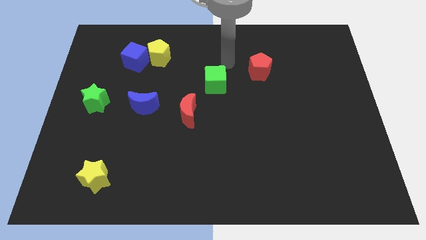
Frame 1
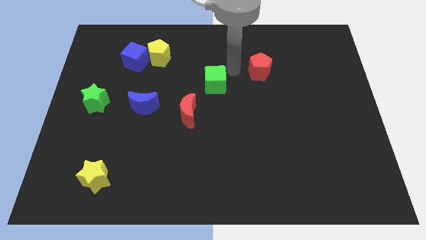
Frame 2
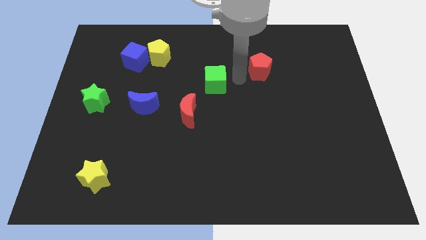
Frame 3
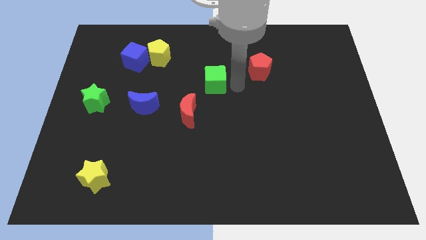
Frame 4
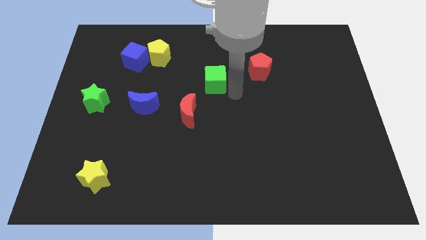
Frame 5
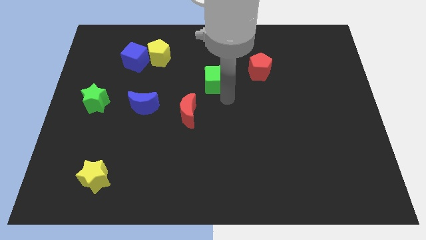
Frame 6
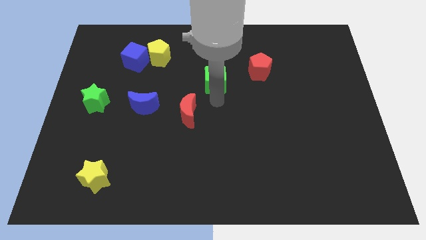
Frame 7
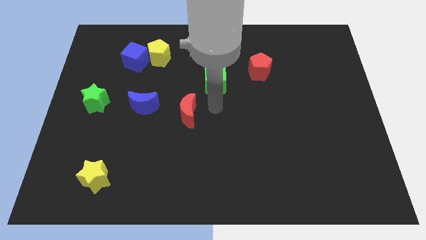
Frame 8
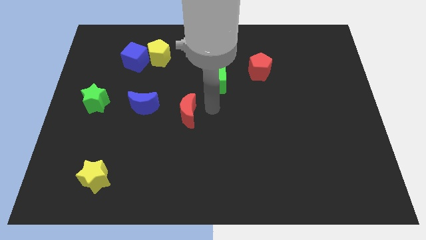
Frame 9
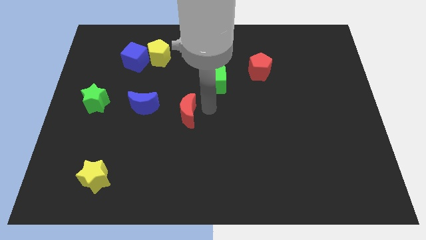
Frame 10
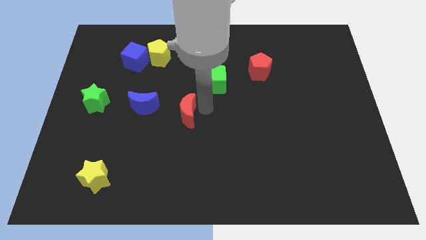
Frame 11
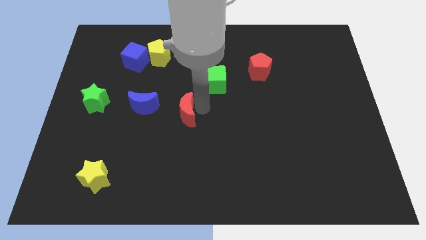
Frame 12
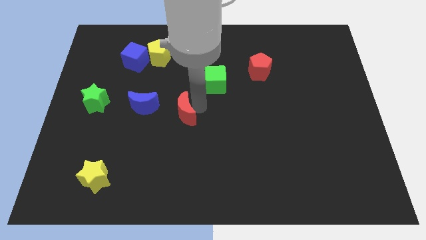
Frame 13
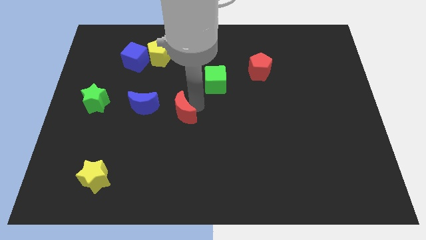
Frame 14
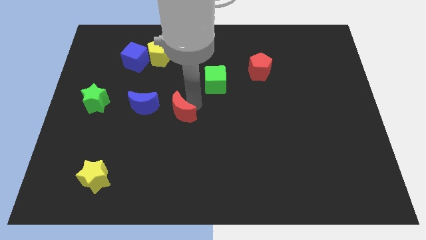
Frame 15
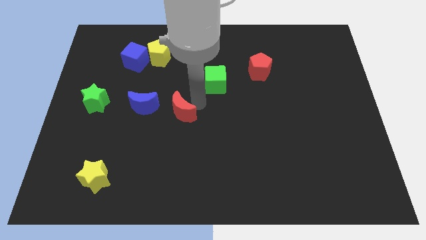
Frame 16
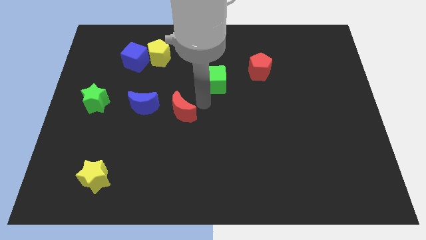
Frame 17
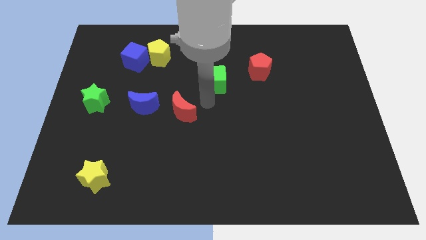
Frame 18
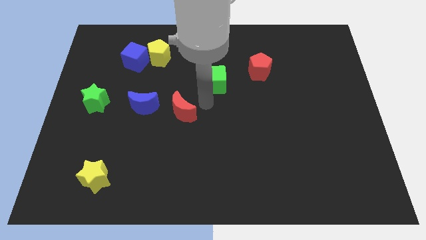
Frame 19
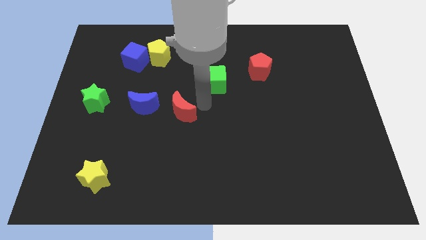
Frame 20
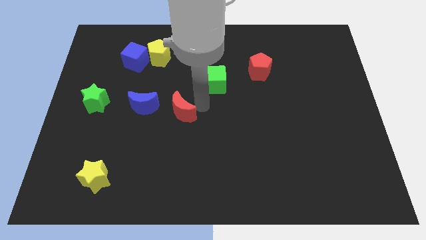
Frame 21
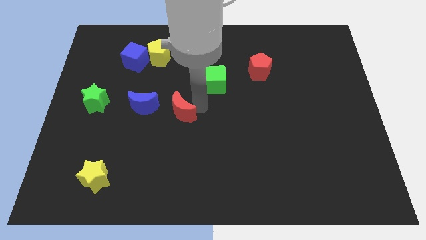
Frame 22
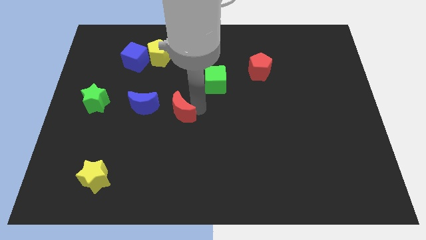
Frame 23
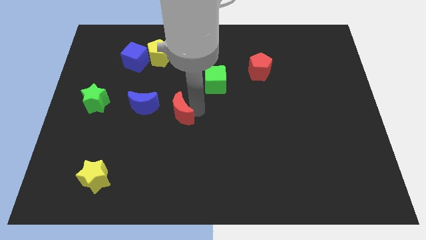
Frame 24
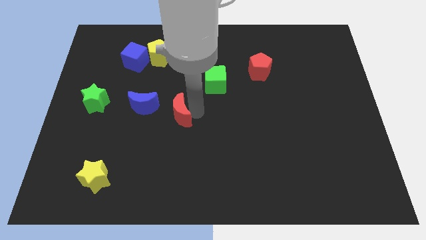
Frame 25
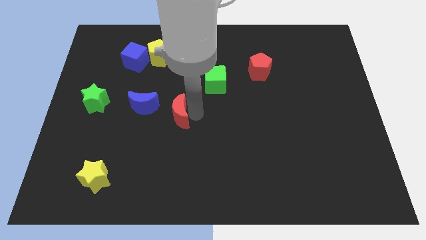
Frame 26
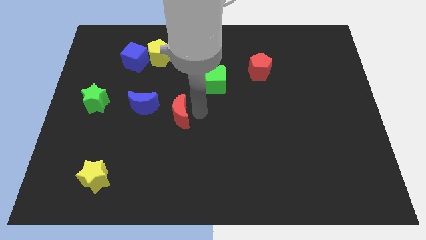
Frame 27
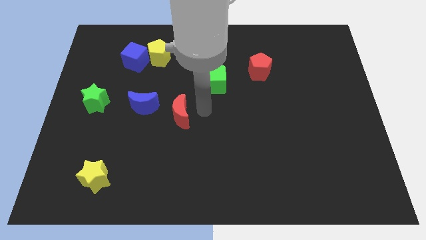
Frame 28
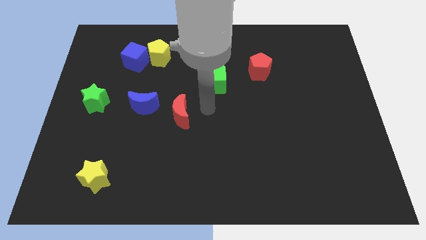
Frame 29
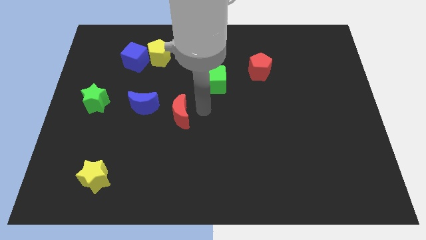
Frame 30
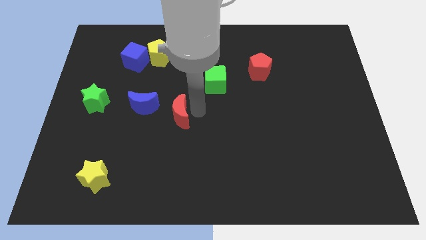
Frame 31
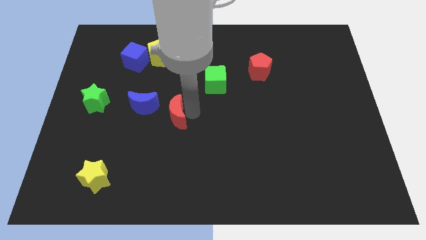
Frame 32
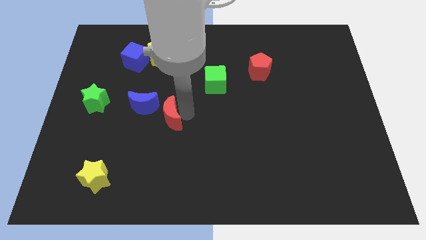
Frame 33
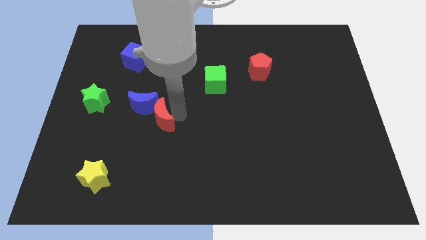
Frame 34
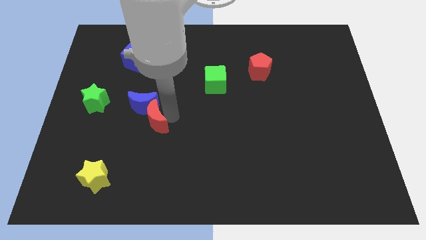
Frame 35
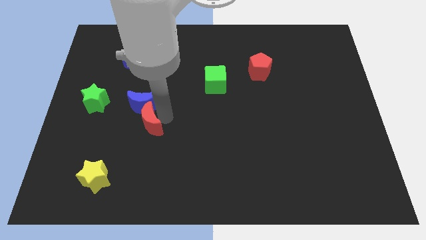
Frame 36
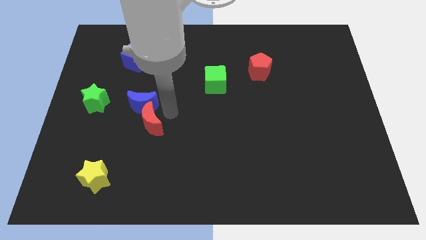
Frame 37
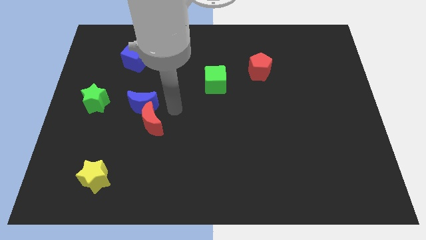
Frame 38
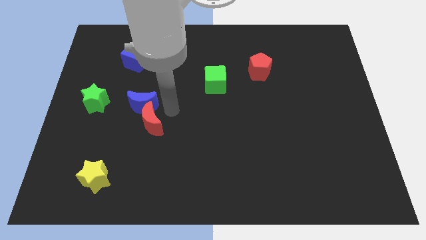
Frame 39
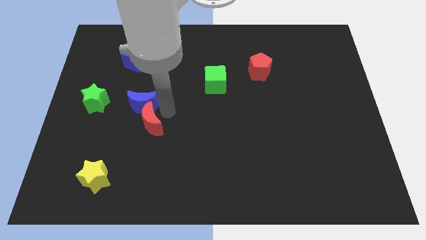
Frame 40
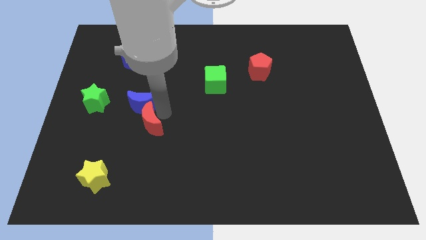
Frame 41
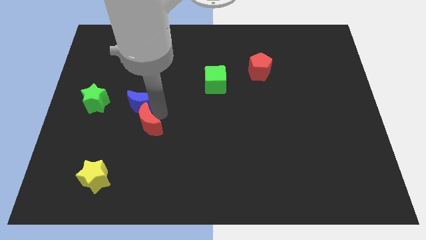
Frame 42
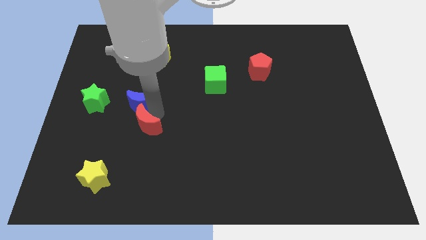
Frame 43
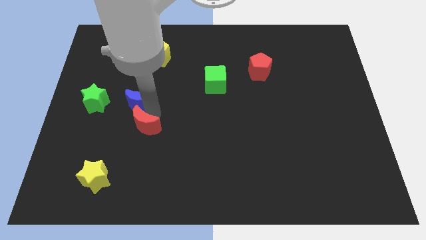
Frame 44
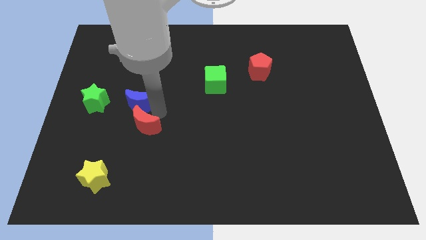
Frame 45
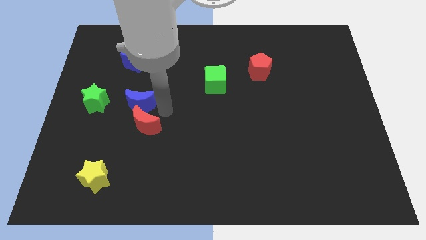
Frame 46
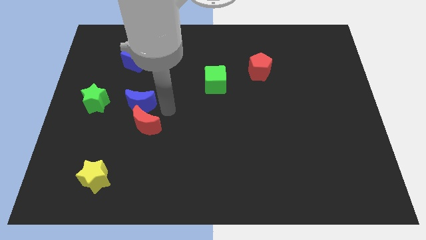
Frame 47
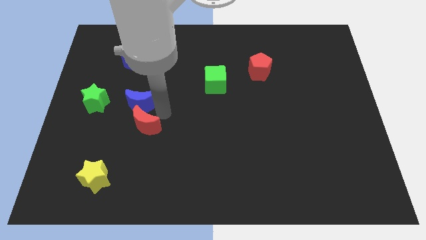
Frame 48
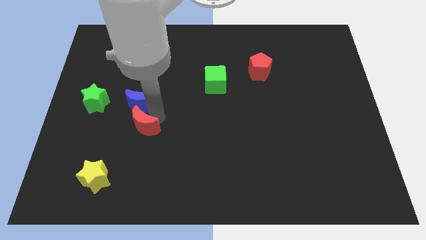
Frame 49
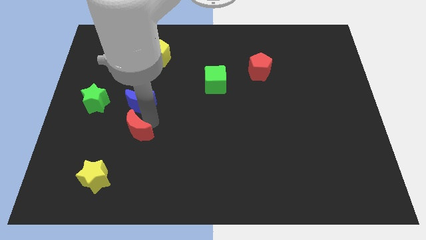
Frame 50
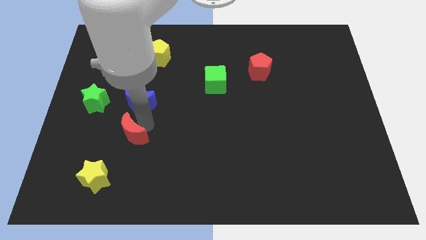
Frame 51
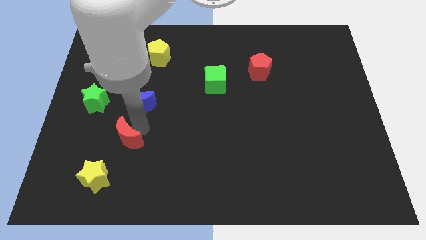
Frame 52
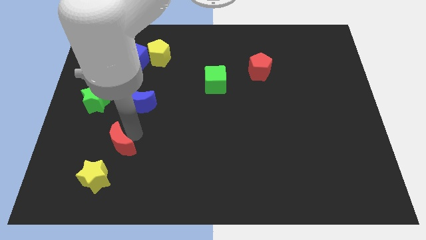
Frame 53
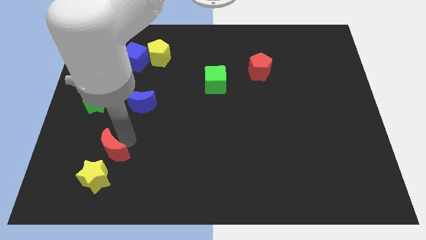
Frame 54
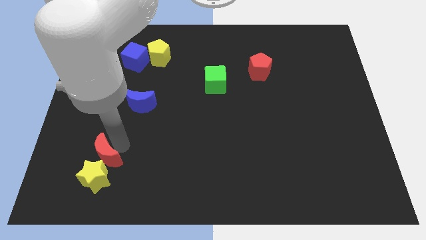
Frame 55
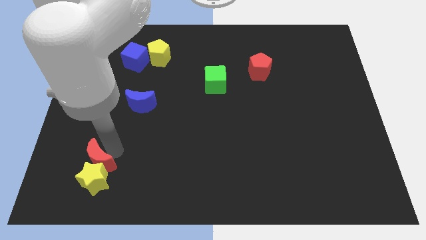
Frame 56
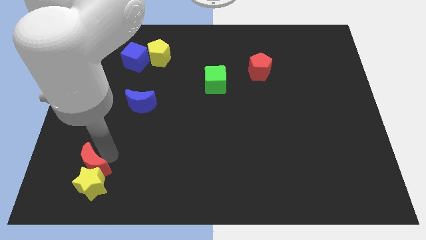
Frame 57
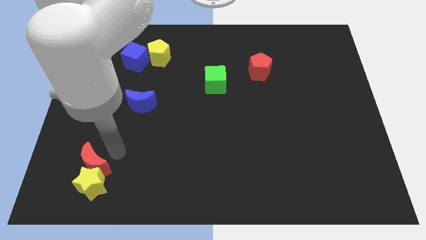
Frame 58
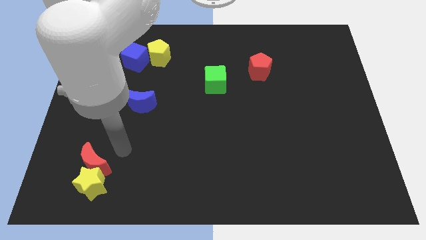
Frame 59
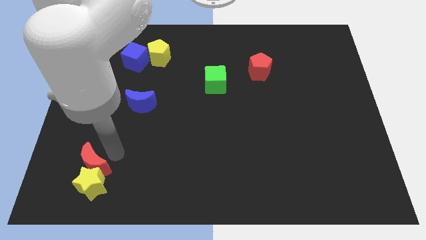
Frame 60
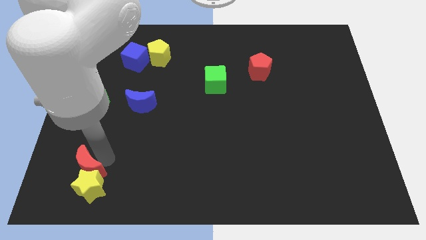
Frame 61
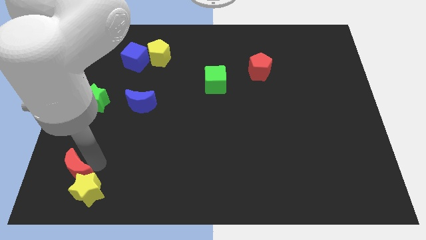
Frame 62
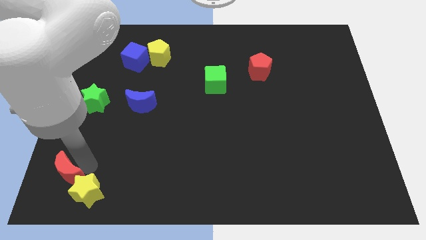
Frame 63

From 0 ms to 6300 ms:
put the red moon to the bottom left
